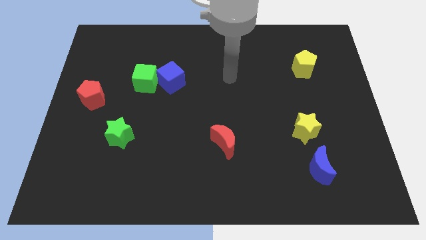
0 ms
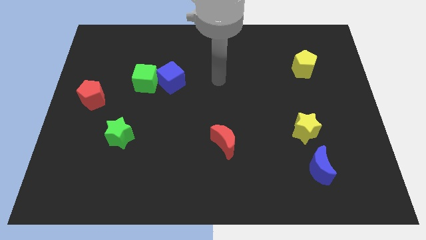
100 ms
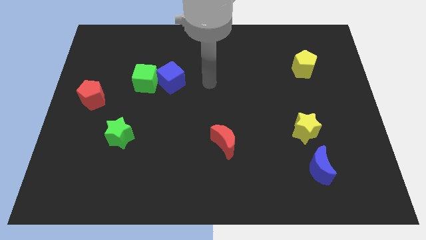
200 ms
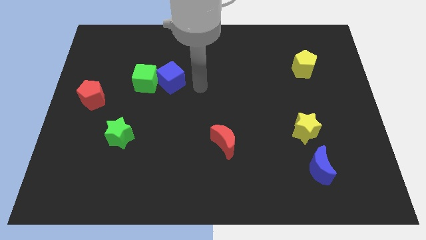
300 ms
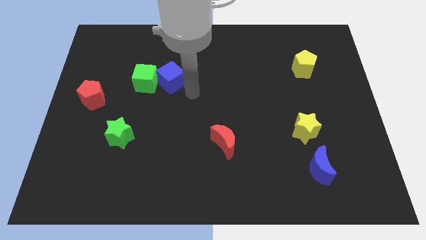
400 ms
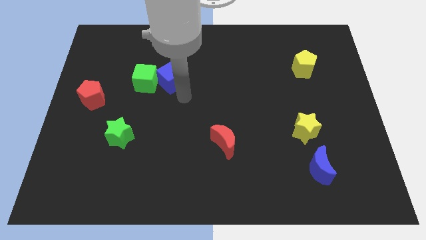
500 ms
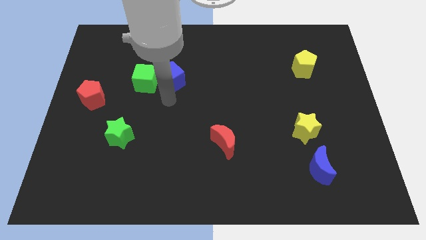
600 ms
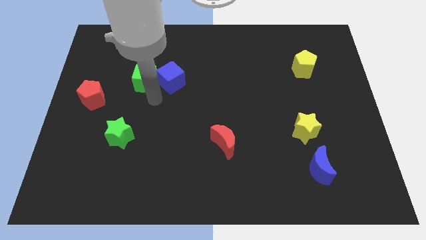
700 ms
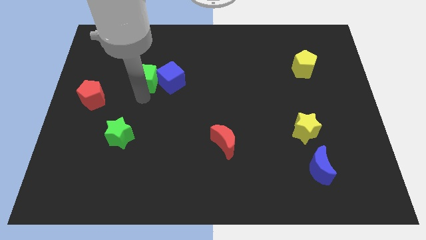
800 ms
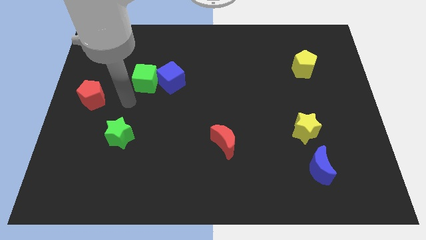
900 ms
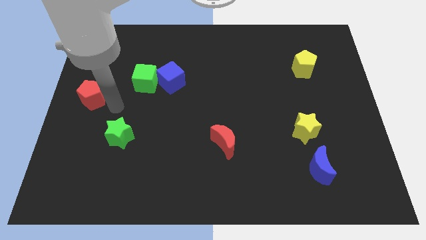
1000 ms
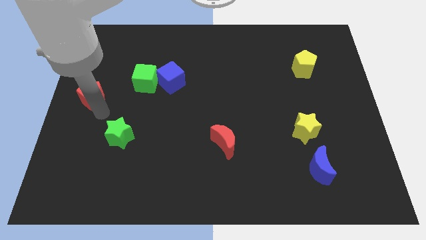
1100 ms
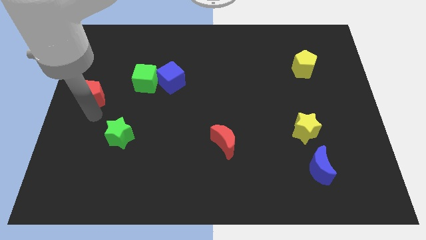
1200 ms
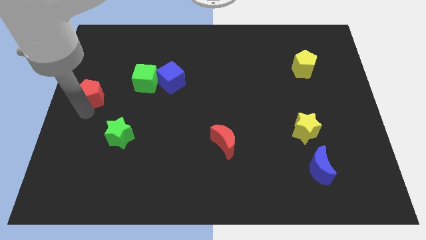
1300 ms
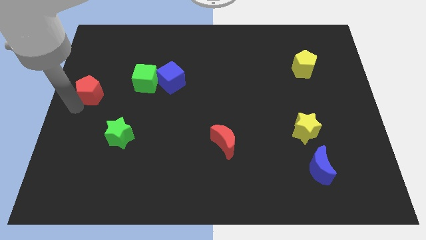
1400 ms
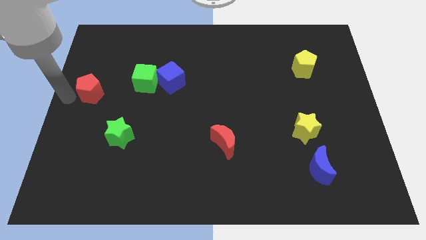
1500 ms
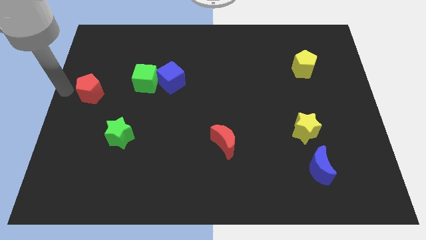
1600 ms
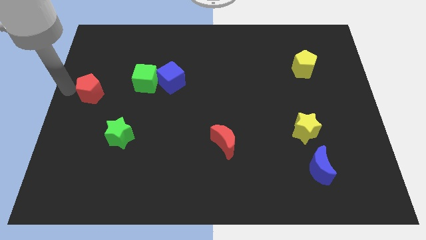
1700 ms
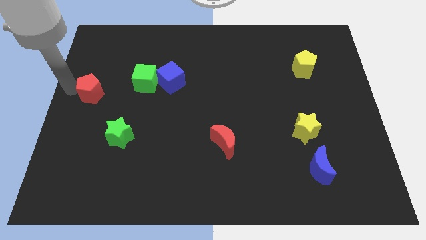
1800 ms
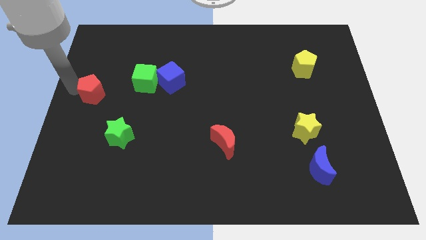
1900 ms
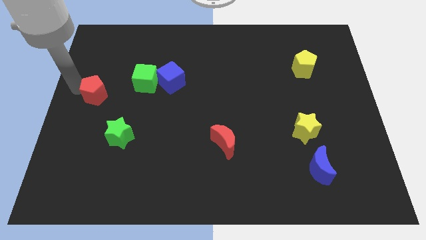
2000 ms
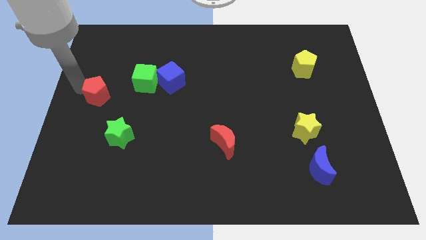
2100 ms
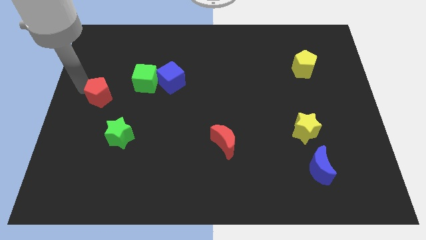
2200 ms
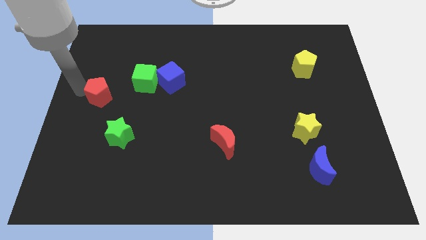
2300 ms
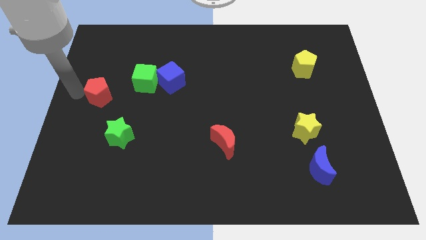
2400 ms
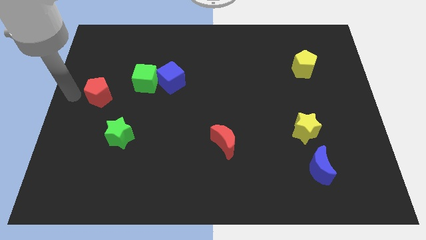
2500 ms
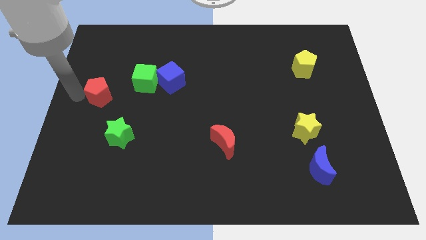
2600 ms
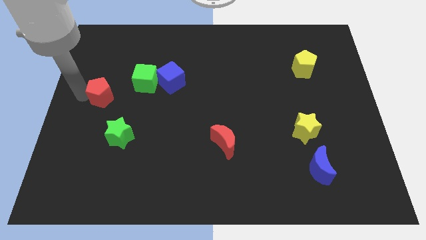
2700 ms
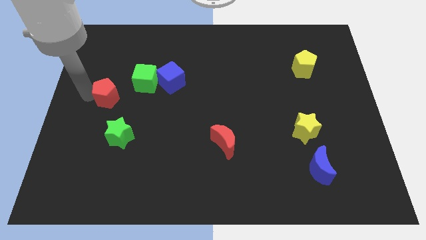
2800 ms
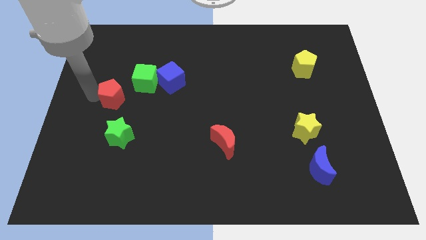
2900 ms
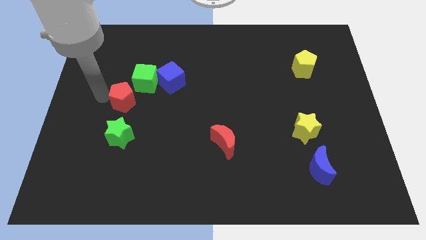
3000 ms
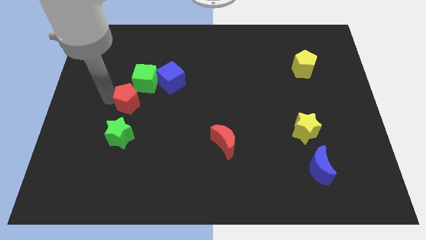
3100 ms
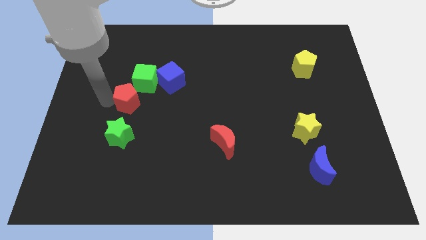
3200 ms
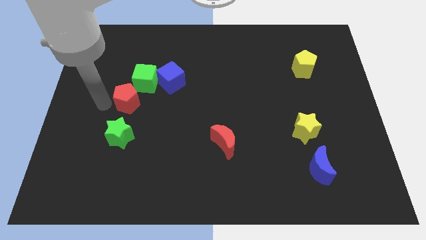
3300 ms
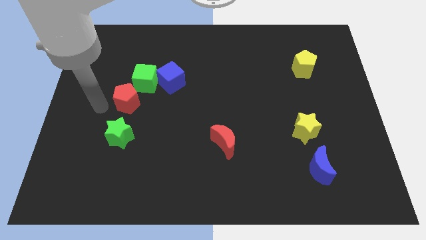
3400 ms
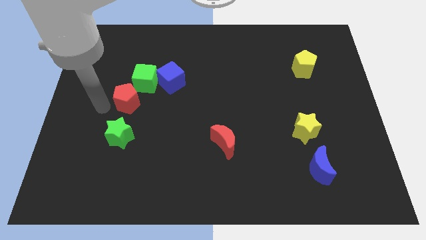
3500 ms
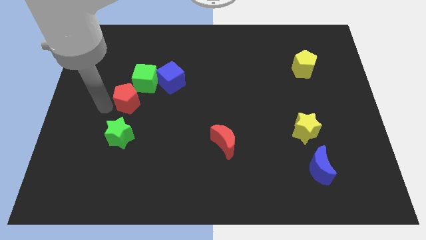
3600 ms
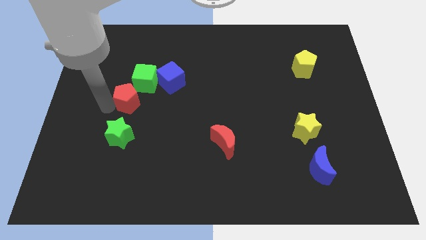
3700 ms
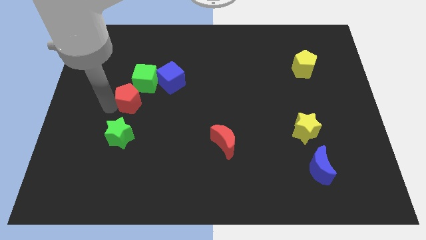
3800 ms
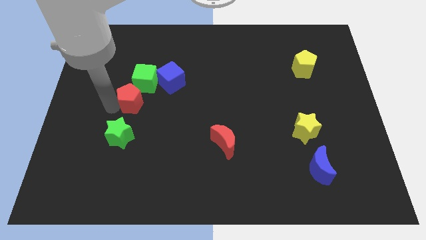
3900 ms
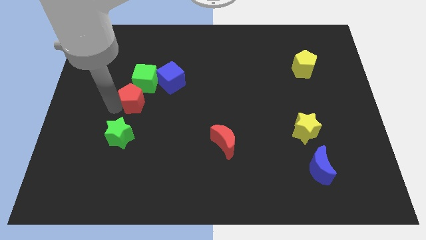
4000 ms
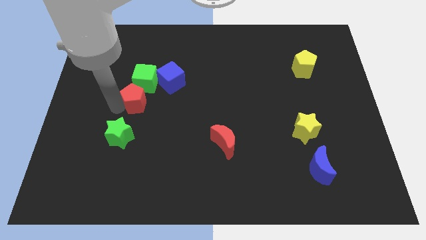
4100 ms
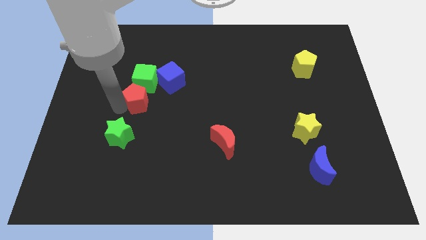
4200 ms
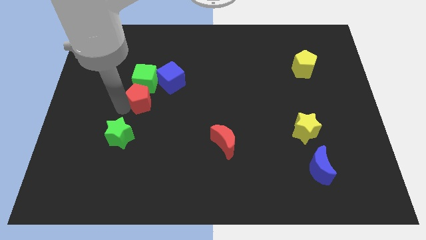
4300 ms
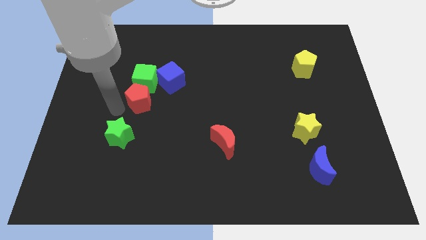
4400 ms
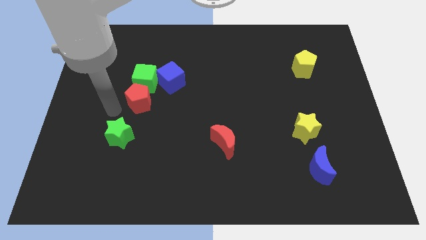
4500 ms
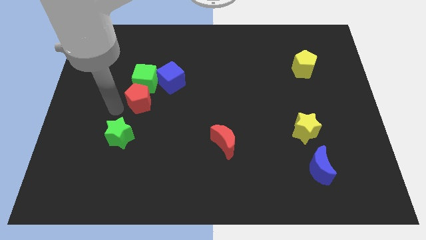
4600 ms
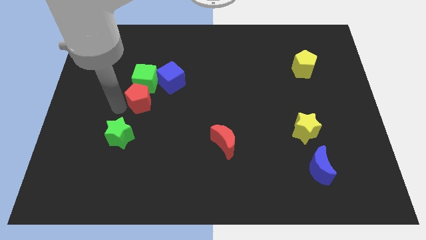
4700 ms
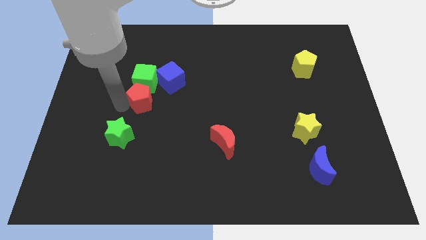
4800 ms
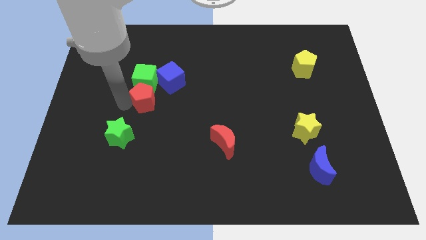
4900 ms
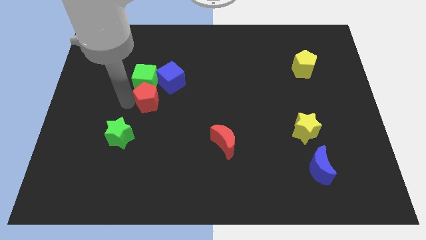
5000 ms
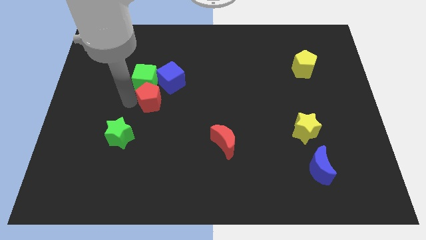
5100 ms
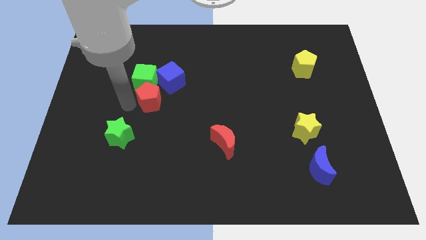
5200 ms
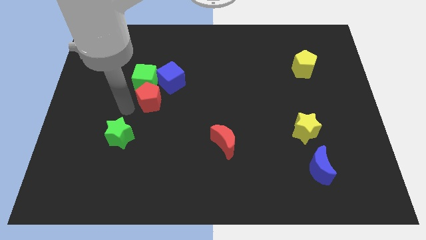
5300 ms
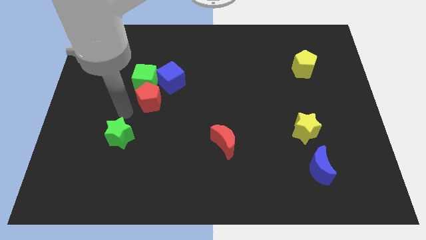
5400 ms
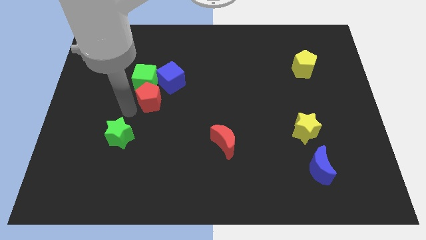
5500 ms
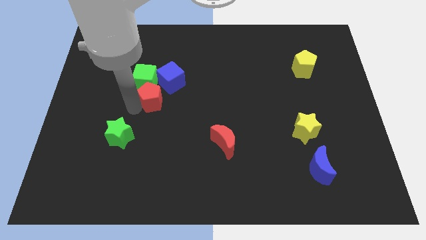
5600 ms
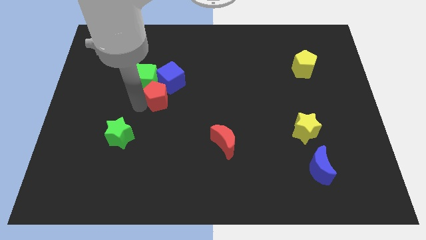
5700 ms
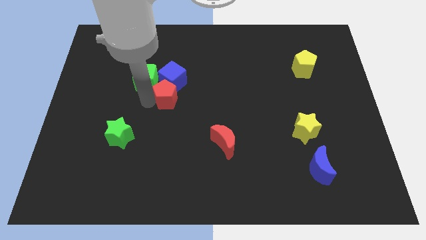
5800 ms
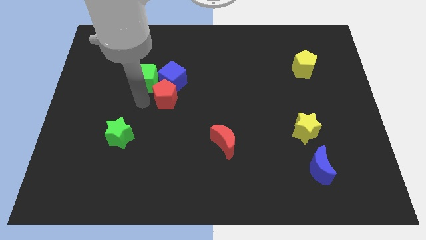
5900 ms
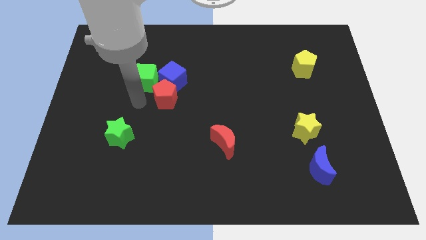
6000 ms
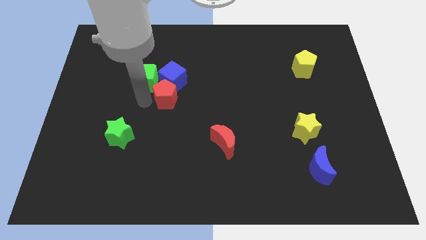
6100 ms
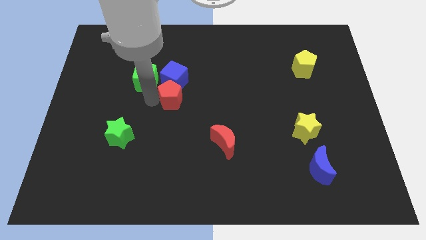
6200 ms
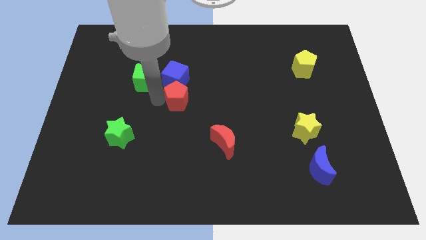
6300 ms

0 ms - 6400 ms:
push the red pentagon right

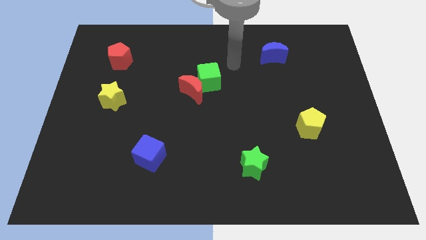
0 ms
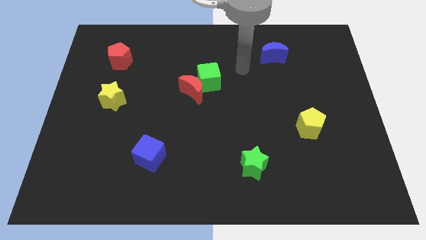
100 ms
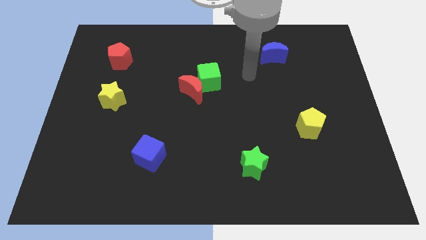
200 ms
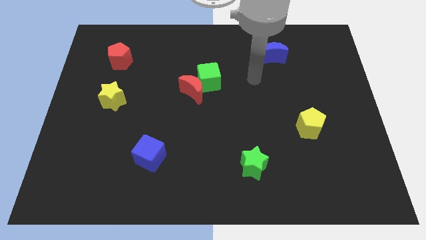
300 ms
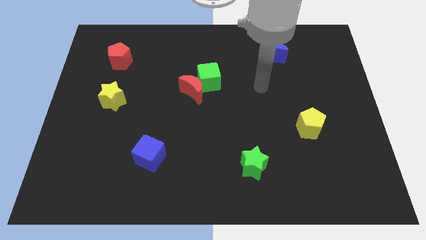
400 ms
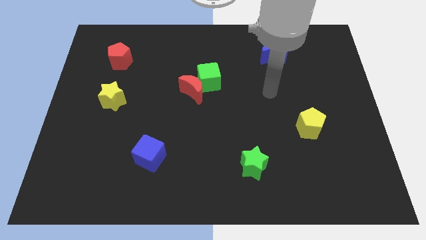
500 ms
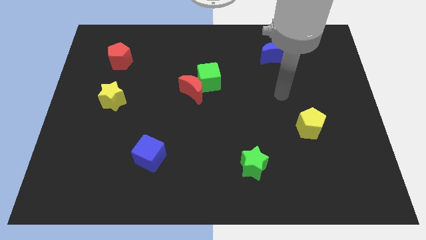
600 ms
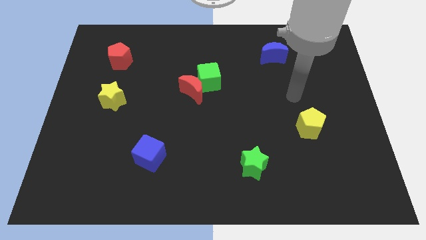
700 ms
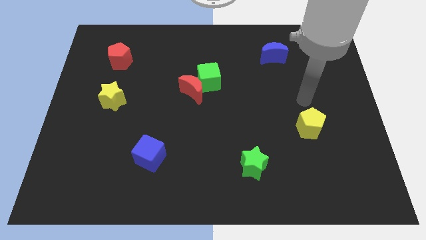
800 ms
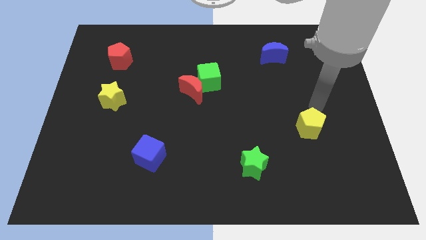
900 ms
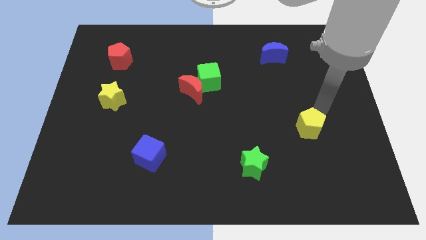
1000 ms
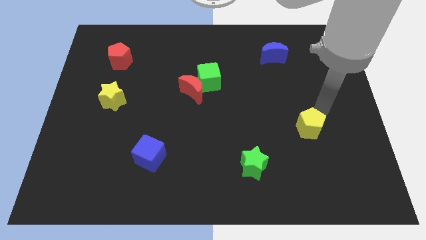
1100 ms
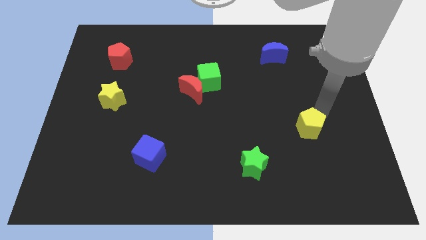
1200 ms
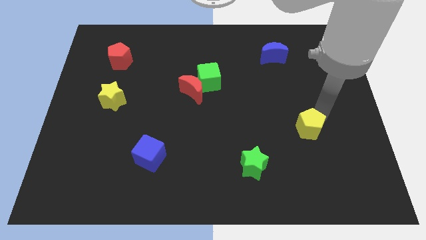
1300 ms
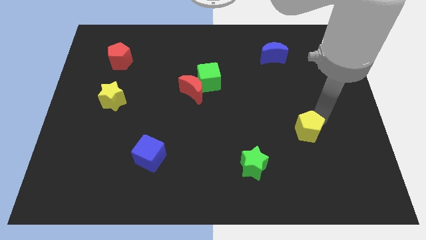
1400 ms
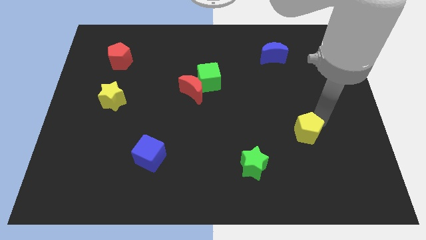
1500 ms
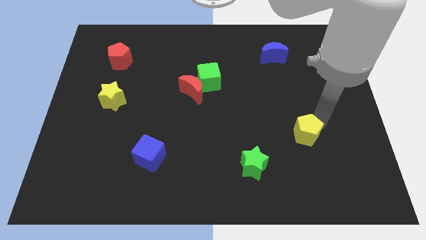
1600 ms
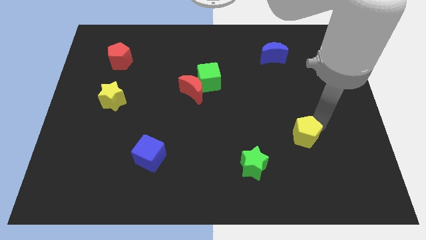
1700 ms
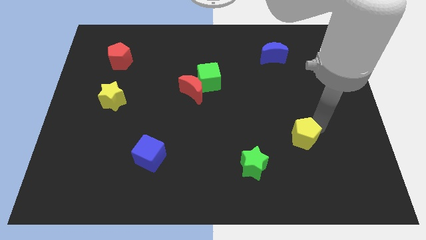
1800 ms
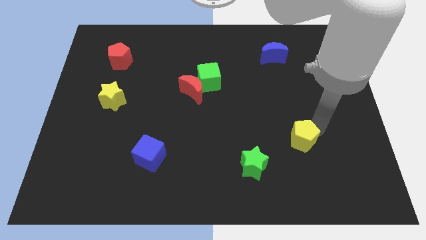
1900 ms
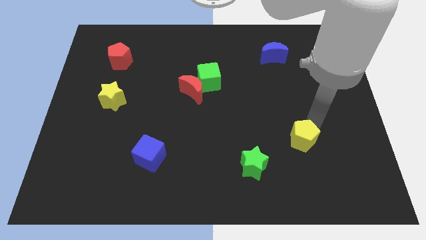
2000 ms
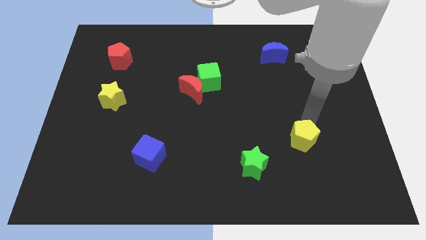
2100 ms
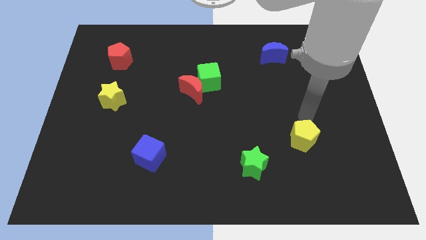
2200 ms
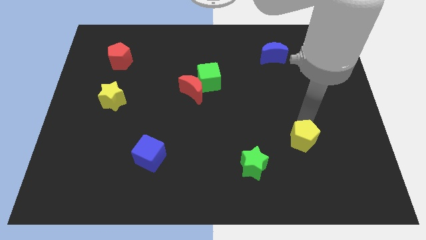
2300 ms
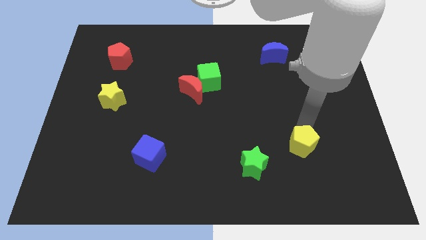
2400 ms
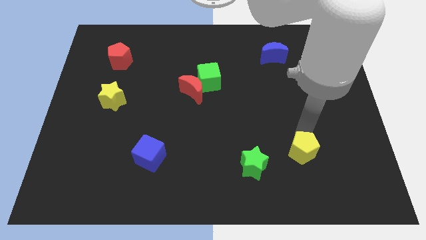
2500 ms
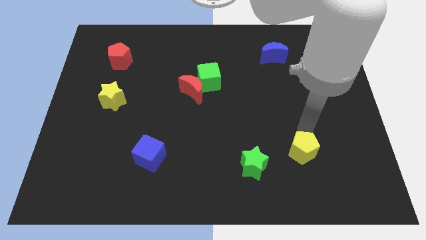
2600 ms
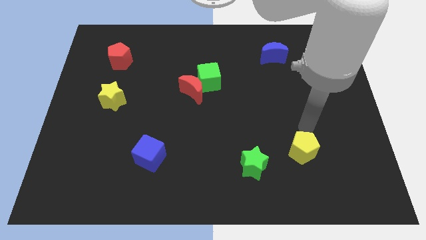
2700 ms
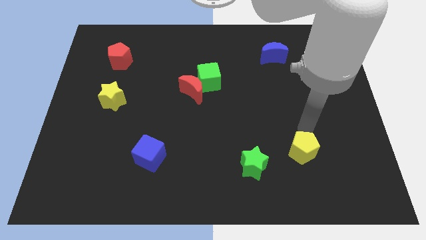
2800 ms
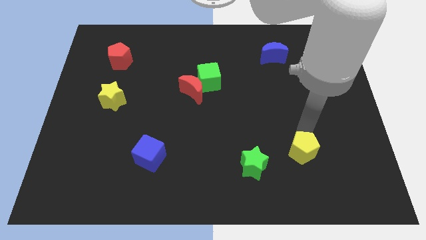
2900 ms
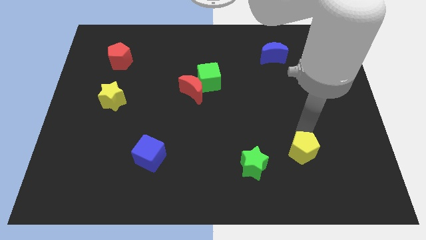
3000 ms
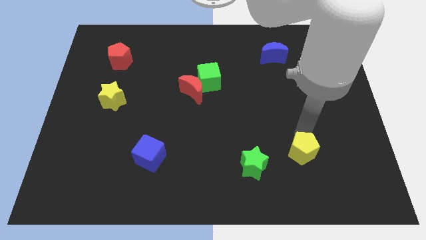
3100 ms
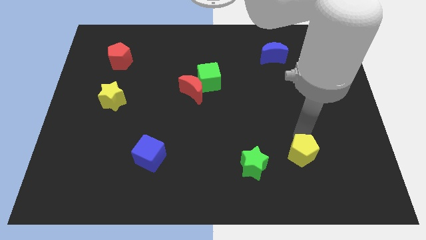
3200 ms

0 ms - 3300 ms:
move the yellow pentagon a bit downwards and to the left diagonally
